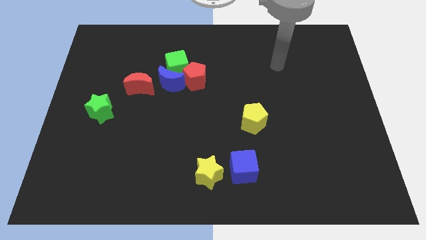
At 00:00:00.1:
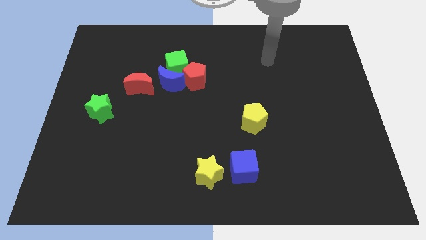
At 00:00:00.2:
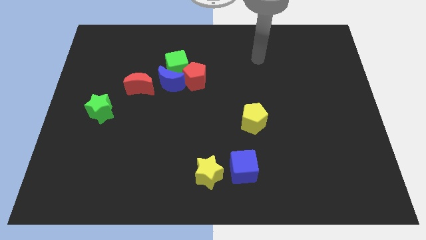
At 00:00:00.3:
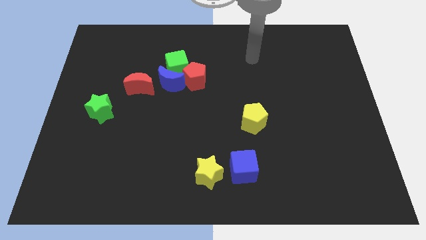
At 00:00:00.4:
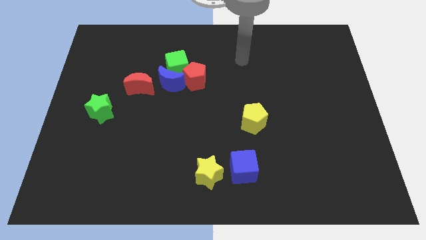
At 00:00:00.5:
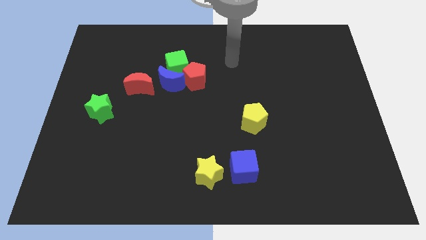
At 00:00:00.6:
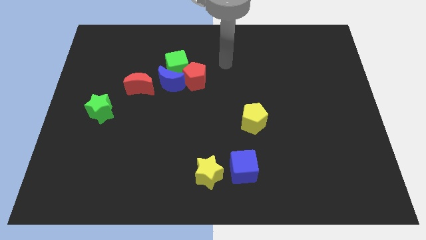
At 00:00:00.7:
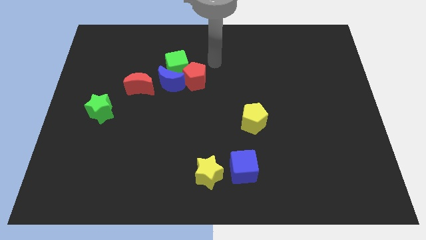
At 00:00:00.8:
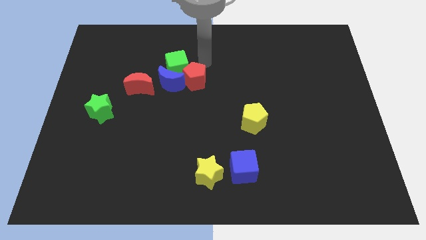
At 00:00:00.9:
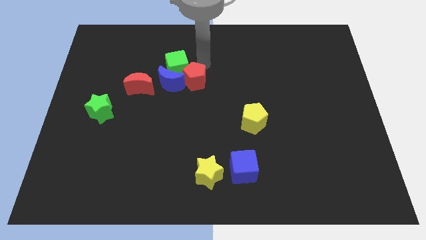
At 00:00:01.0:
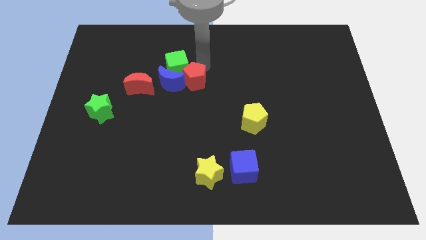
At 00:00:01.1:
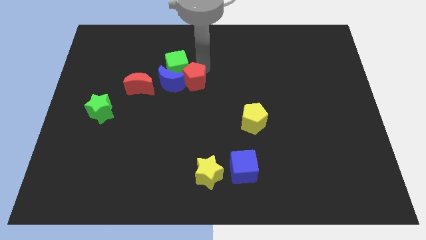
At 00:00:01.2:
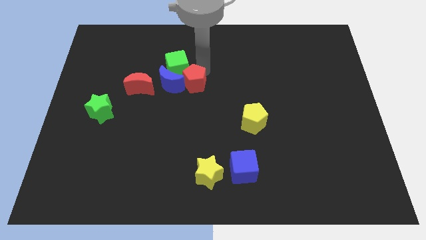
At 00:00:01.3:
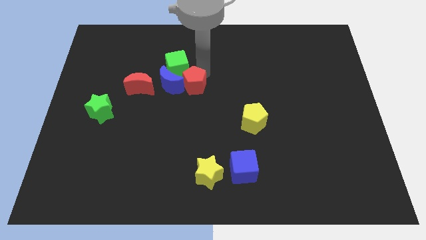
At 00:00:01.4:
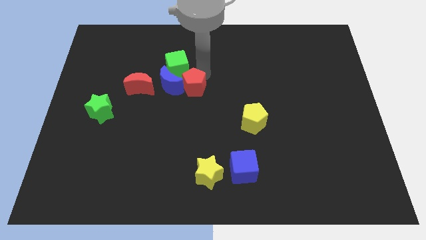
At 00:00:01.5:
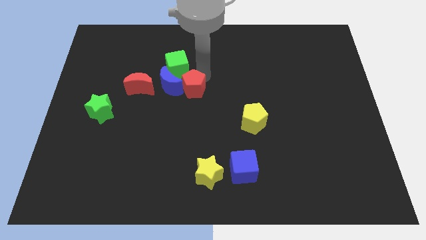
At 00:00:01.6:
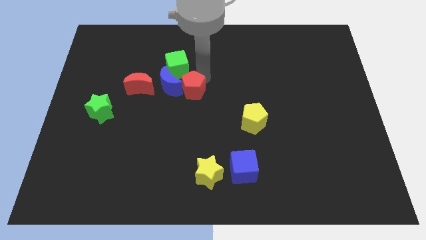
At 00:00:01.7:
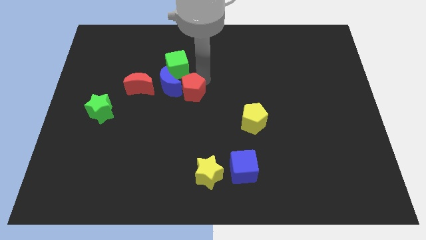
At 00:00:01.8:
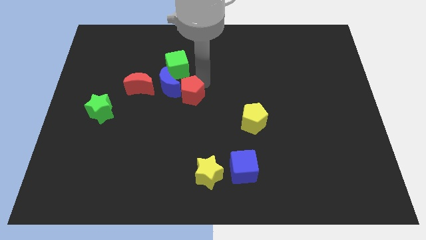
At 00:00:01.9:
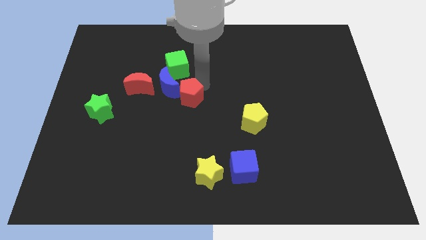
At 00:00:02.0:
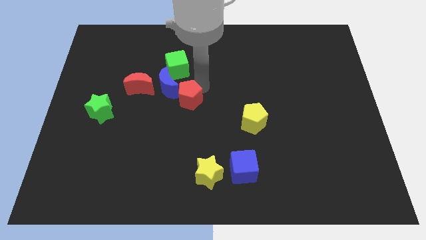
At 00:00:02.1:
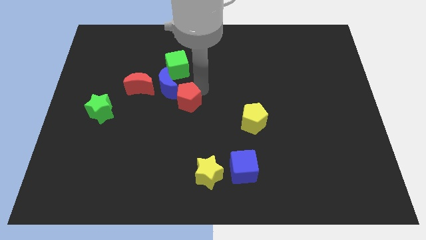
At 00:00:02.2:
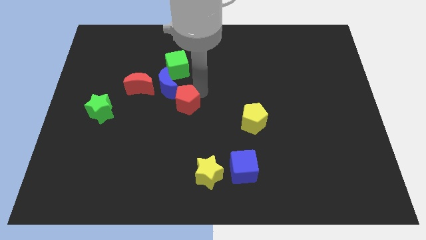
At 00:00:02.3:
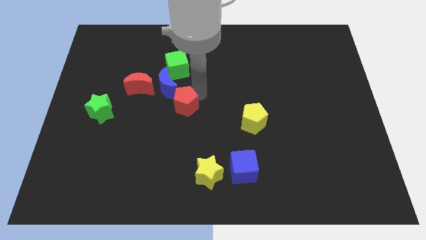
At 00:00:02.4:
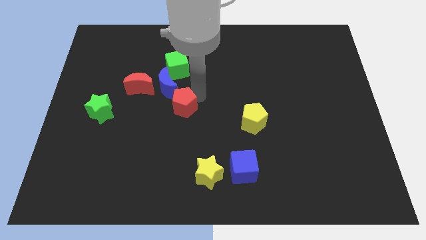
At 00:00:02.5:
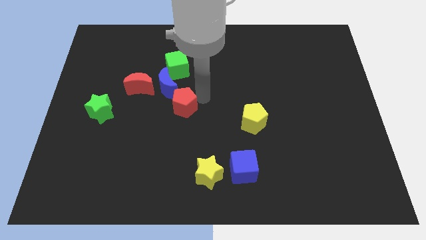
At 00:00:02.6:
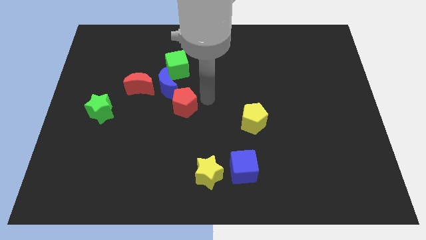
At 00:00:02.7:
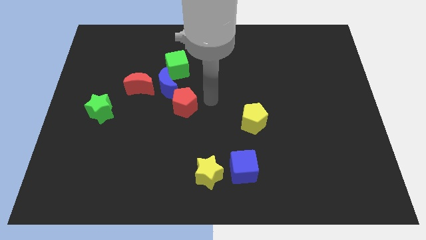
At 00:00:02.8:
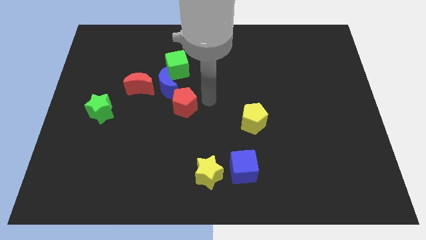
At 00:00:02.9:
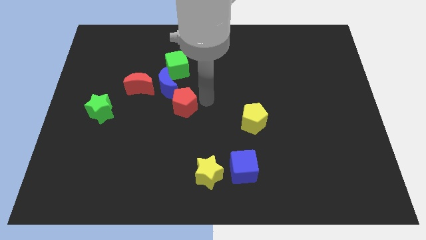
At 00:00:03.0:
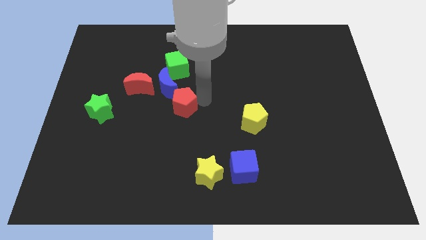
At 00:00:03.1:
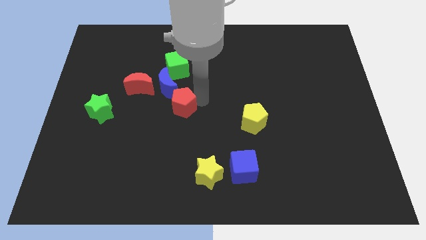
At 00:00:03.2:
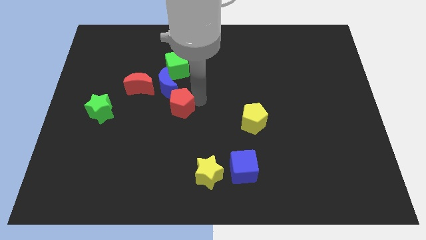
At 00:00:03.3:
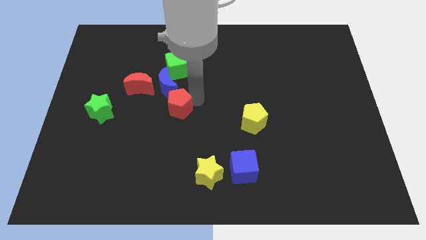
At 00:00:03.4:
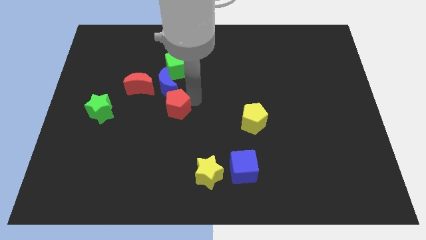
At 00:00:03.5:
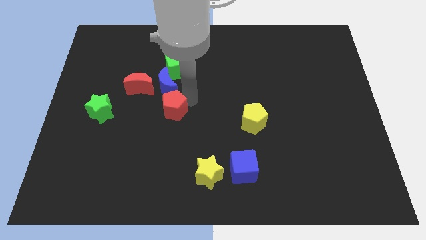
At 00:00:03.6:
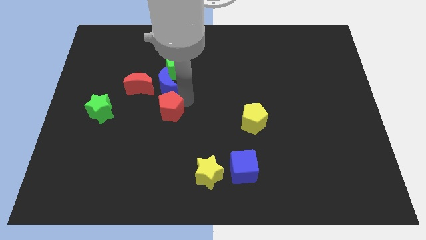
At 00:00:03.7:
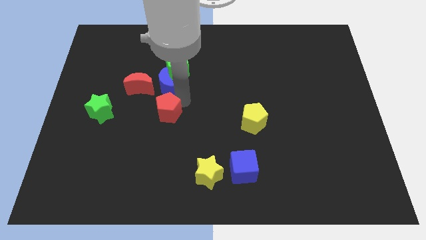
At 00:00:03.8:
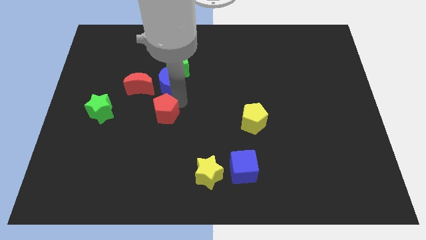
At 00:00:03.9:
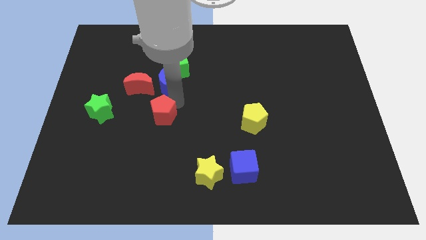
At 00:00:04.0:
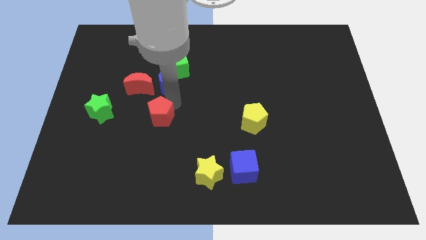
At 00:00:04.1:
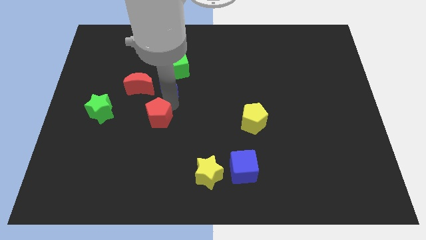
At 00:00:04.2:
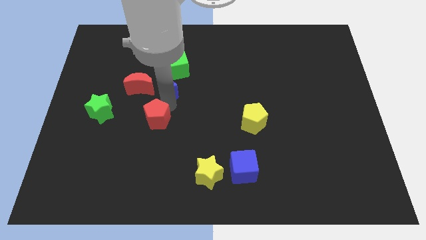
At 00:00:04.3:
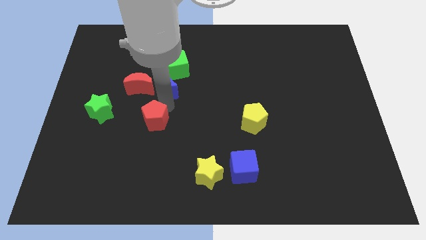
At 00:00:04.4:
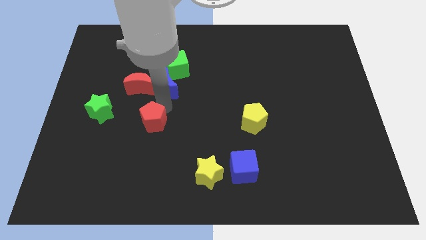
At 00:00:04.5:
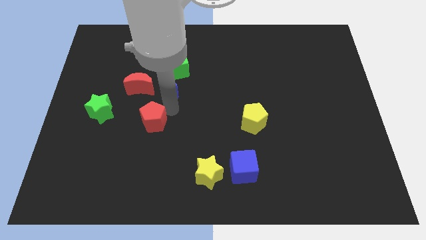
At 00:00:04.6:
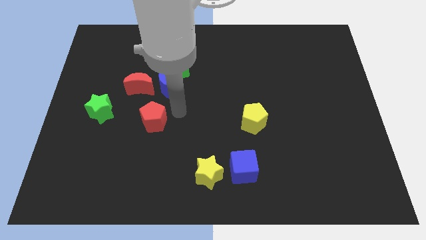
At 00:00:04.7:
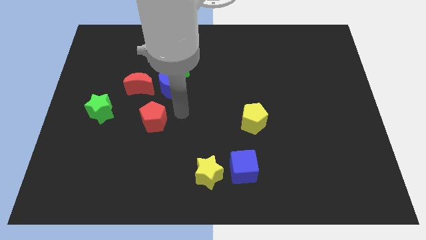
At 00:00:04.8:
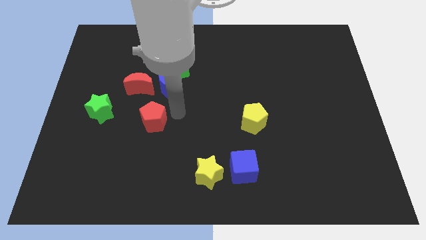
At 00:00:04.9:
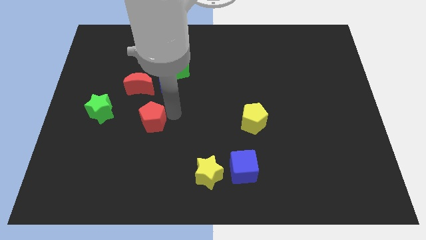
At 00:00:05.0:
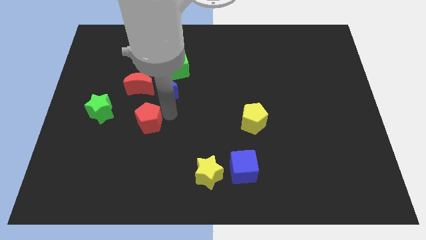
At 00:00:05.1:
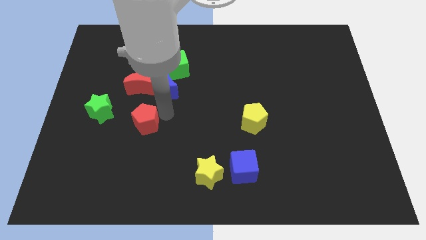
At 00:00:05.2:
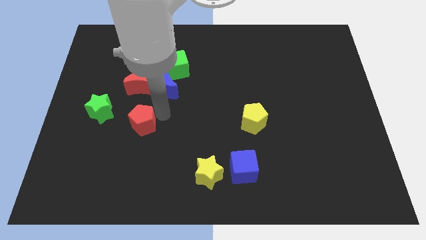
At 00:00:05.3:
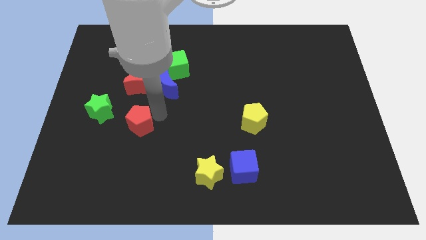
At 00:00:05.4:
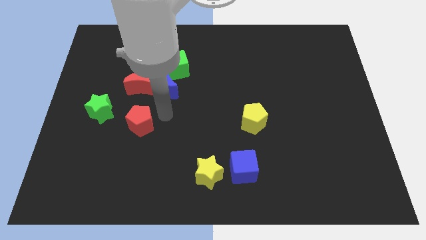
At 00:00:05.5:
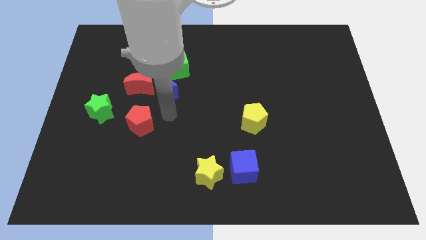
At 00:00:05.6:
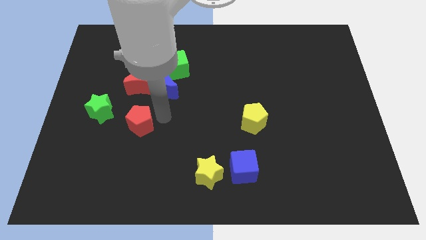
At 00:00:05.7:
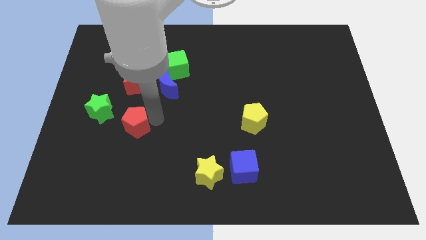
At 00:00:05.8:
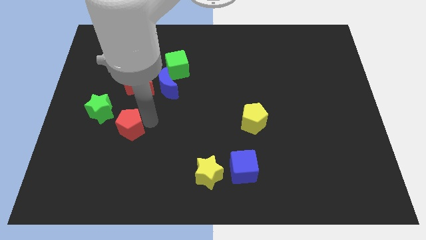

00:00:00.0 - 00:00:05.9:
slide the red pentagon diagonally down and left

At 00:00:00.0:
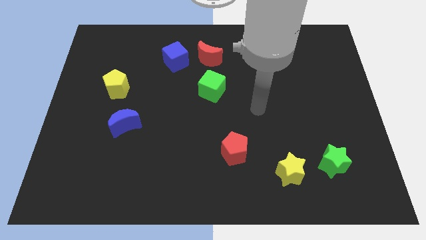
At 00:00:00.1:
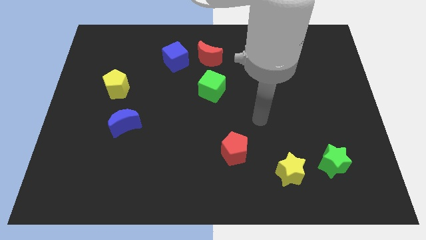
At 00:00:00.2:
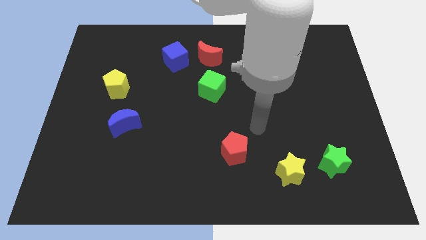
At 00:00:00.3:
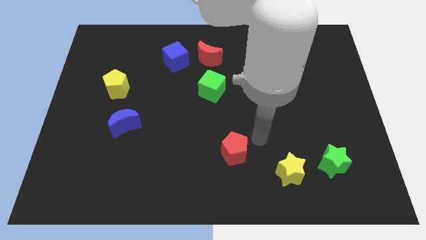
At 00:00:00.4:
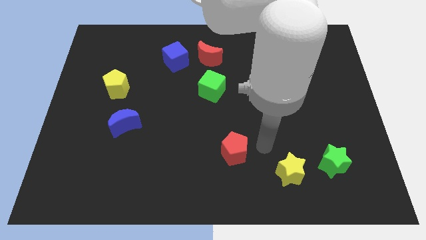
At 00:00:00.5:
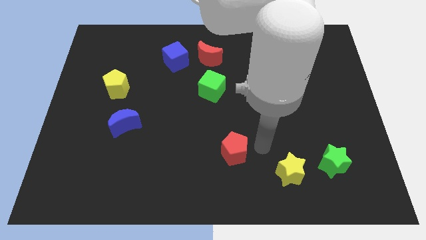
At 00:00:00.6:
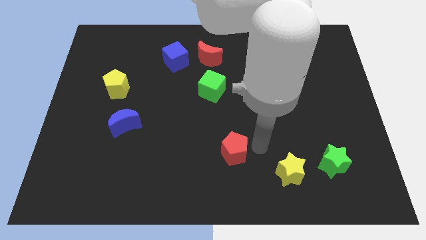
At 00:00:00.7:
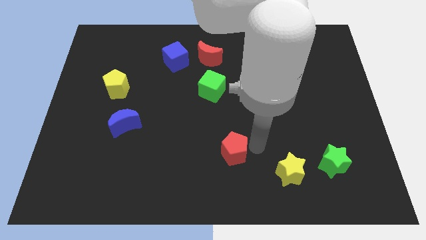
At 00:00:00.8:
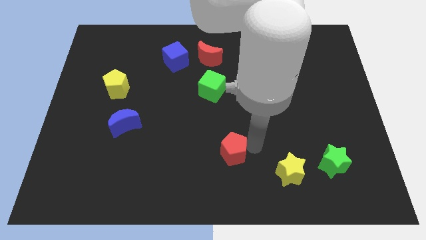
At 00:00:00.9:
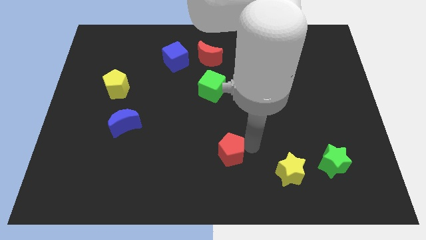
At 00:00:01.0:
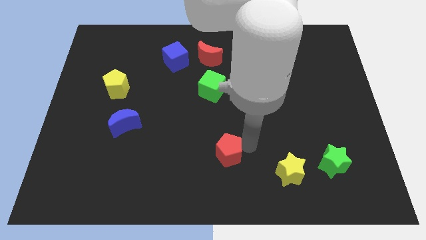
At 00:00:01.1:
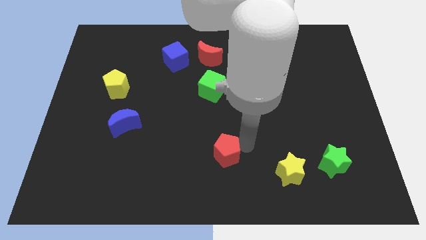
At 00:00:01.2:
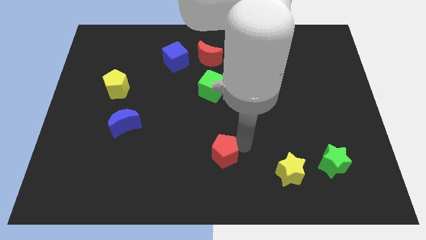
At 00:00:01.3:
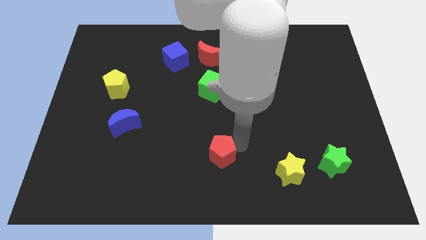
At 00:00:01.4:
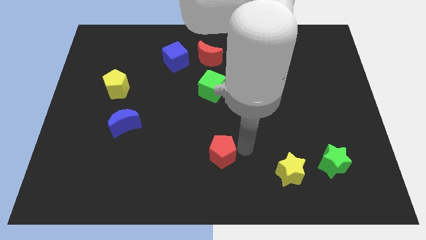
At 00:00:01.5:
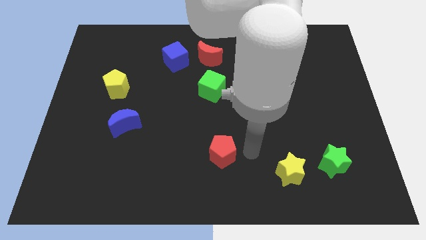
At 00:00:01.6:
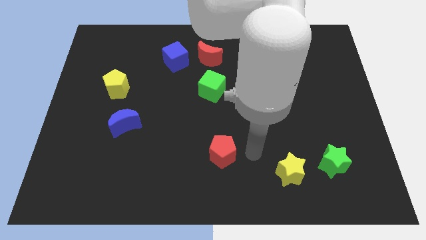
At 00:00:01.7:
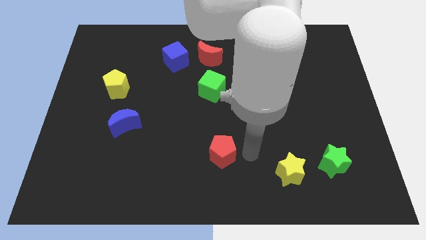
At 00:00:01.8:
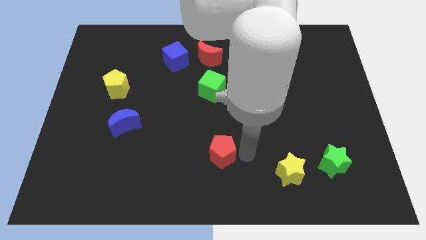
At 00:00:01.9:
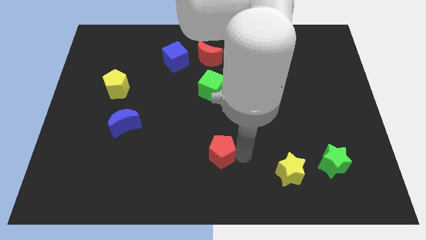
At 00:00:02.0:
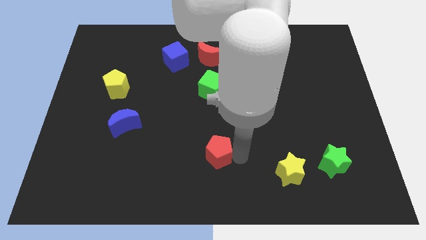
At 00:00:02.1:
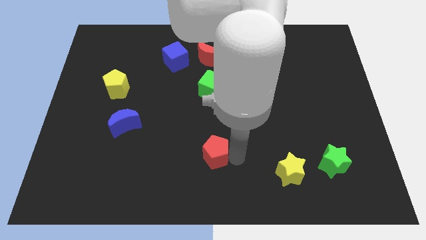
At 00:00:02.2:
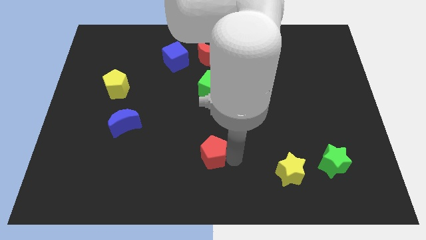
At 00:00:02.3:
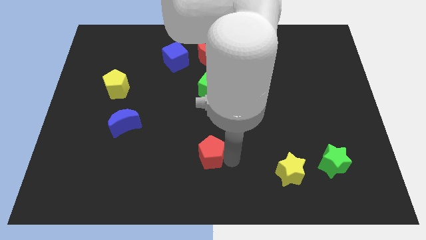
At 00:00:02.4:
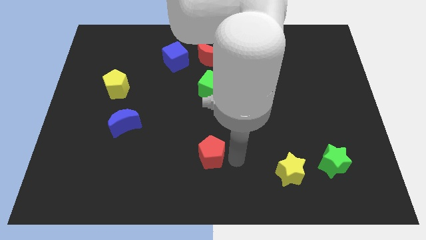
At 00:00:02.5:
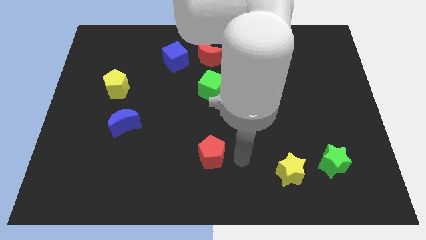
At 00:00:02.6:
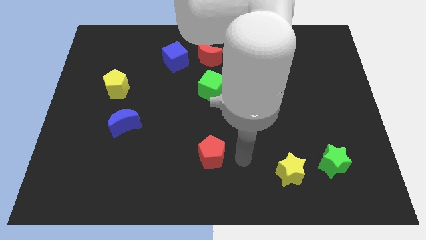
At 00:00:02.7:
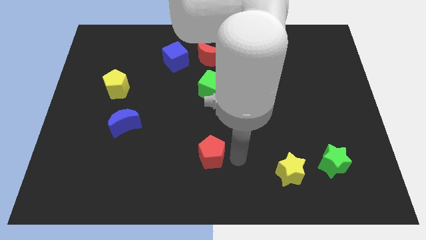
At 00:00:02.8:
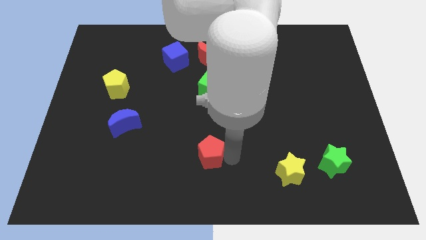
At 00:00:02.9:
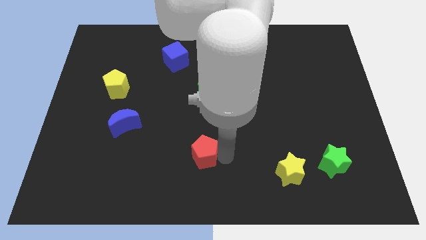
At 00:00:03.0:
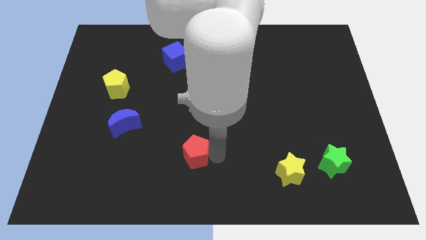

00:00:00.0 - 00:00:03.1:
slide the red pentagon left a bit
